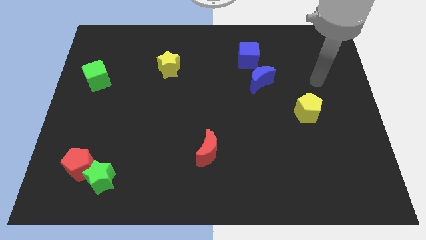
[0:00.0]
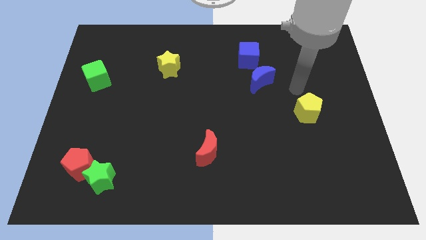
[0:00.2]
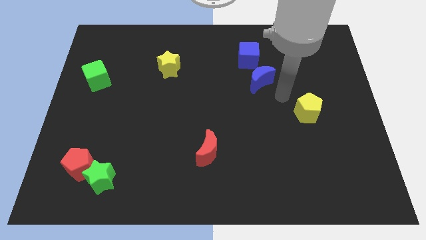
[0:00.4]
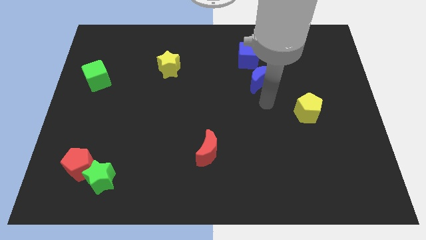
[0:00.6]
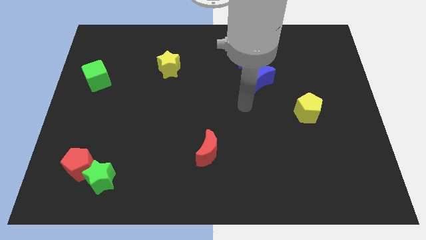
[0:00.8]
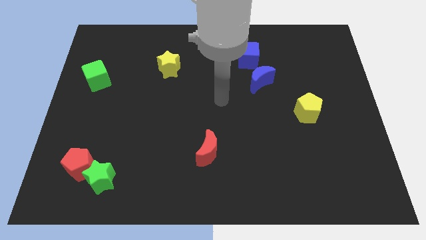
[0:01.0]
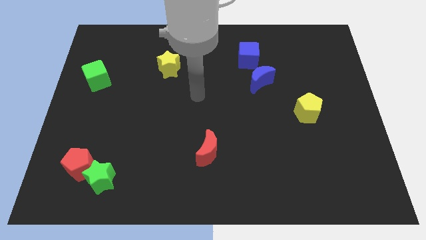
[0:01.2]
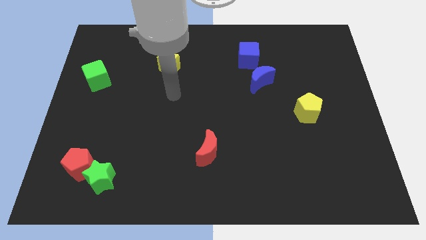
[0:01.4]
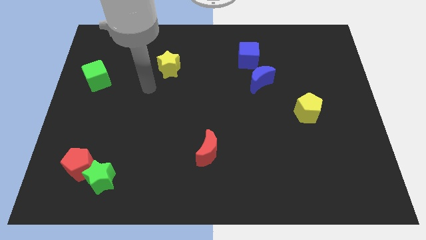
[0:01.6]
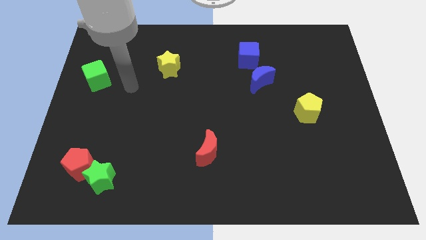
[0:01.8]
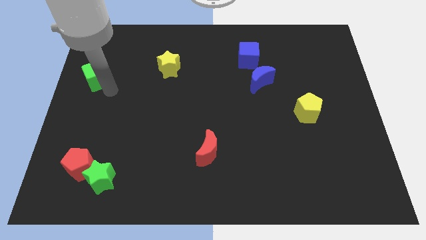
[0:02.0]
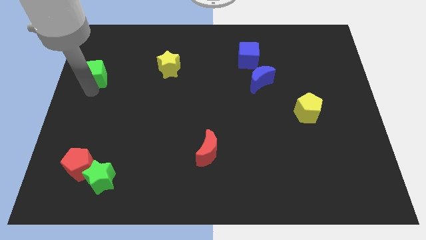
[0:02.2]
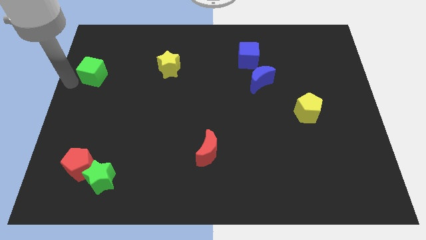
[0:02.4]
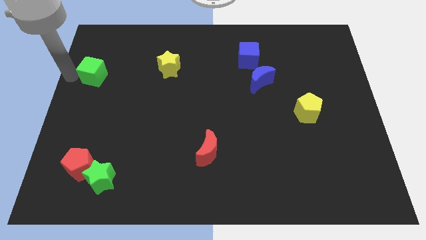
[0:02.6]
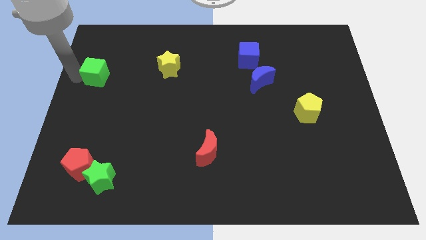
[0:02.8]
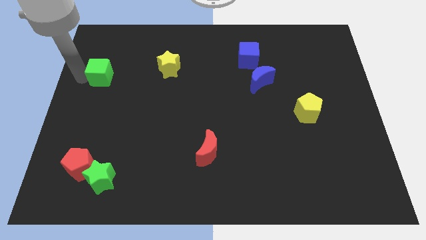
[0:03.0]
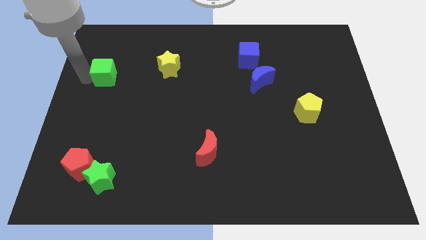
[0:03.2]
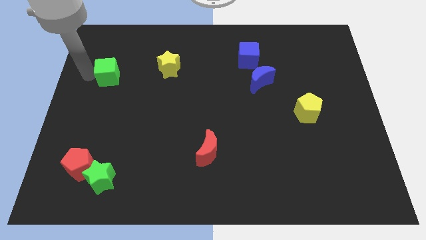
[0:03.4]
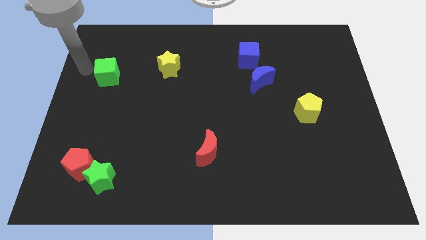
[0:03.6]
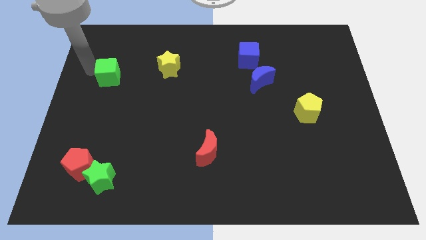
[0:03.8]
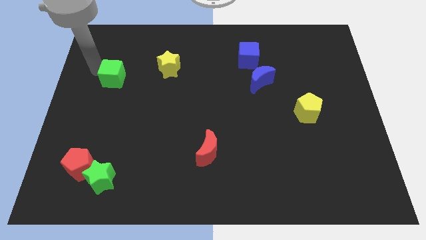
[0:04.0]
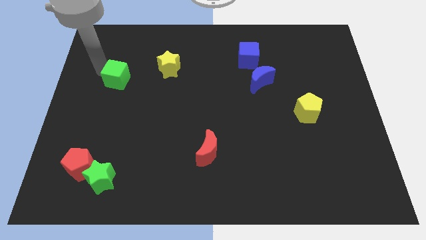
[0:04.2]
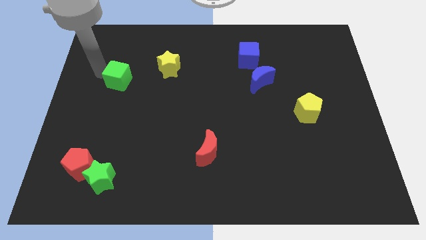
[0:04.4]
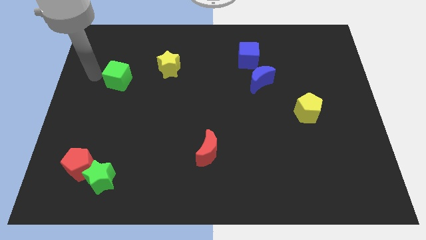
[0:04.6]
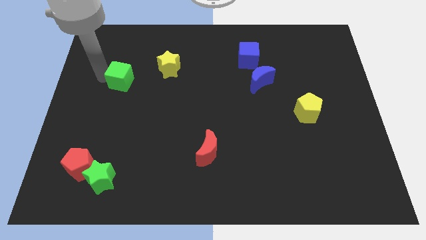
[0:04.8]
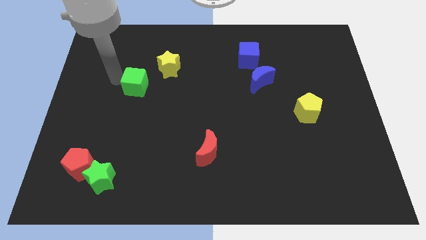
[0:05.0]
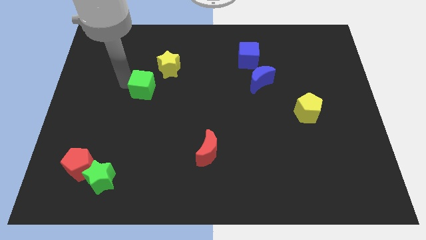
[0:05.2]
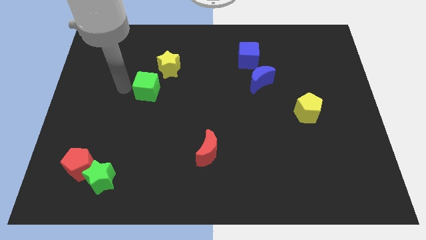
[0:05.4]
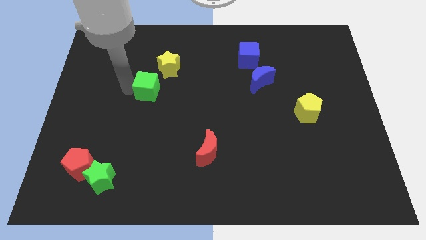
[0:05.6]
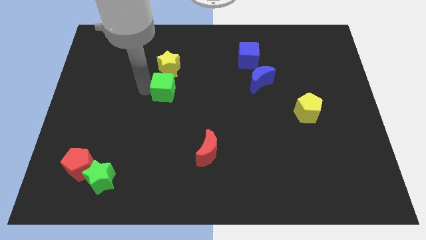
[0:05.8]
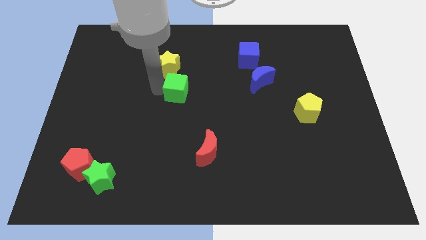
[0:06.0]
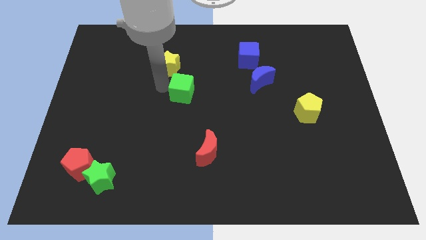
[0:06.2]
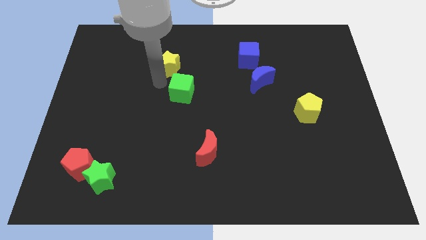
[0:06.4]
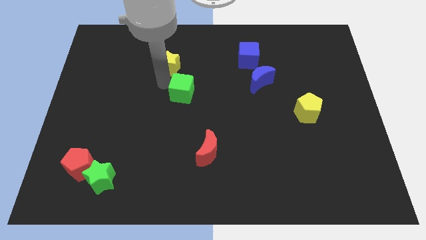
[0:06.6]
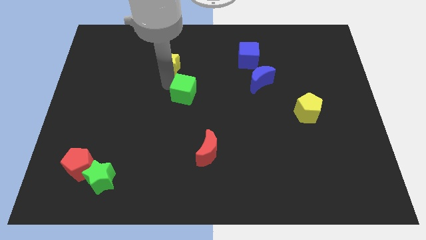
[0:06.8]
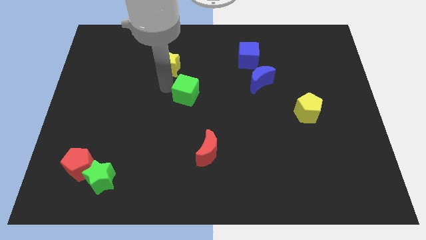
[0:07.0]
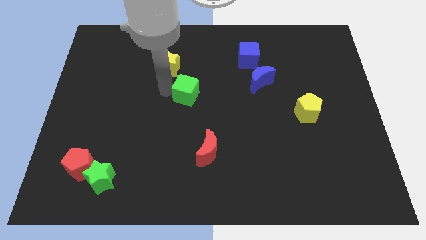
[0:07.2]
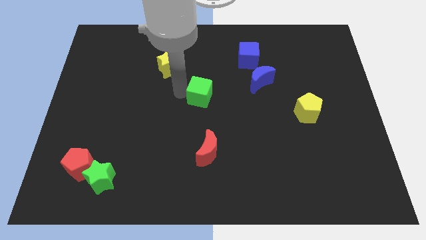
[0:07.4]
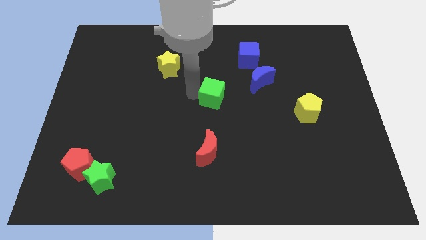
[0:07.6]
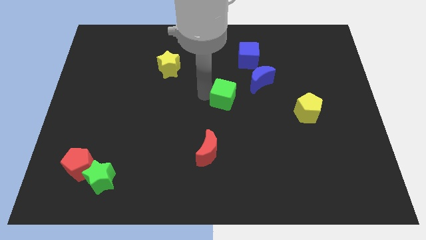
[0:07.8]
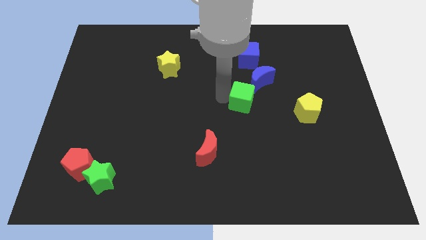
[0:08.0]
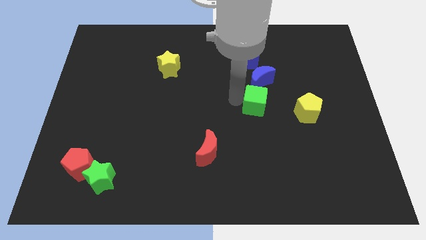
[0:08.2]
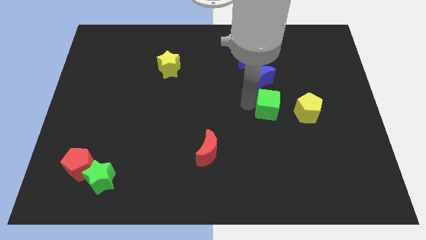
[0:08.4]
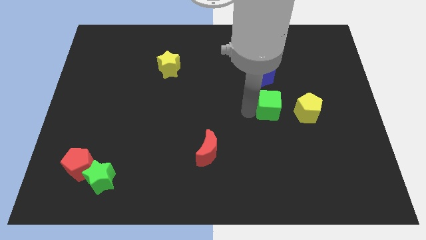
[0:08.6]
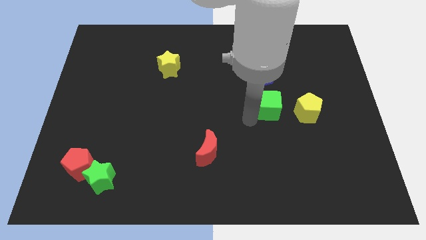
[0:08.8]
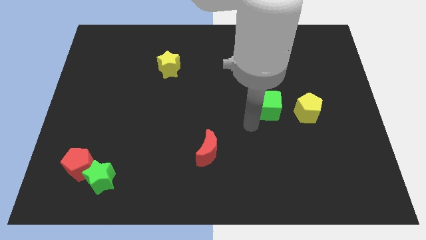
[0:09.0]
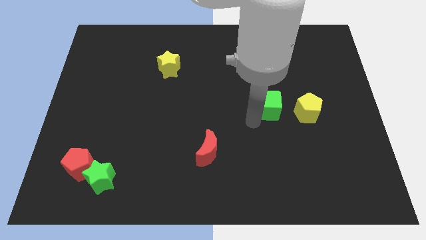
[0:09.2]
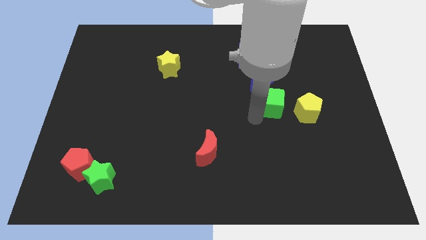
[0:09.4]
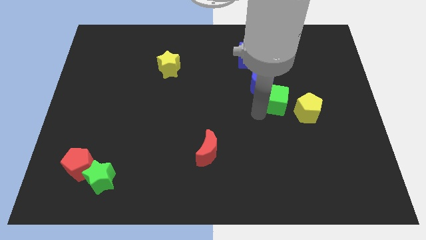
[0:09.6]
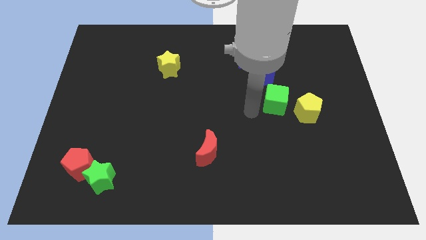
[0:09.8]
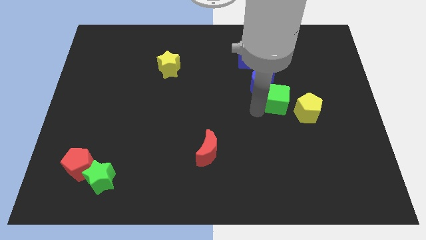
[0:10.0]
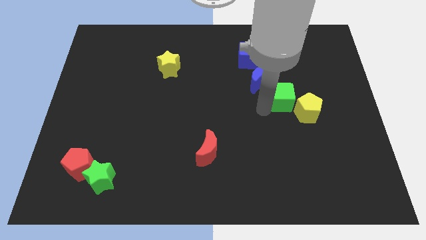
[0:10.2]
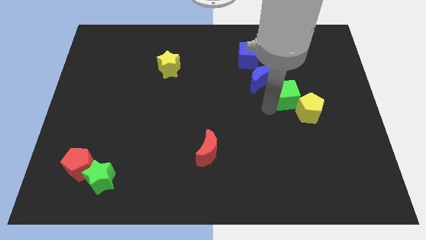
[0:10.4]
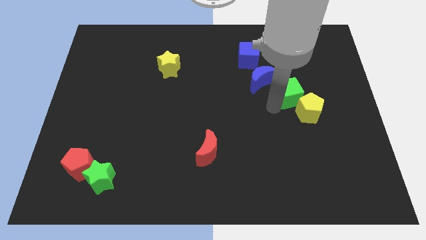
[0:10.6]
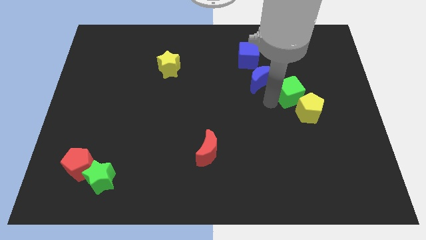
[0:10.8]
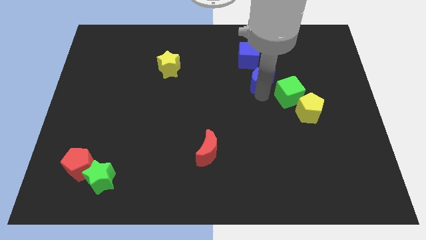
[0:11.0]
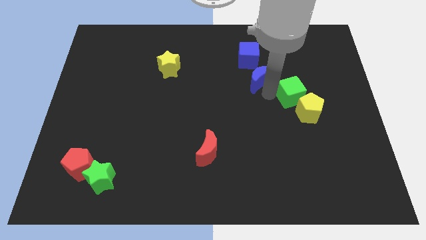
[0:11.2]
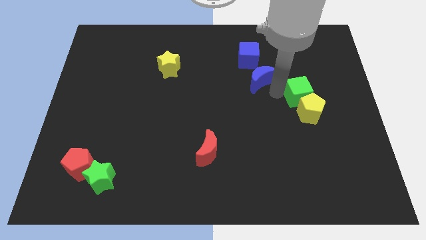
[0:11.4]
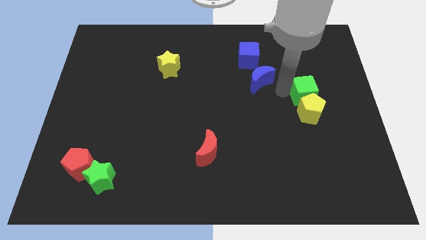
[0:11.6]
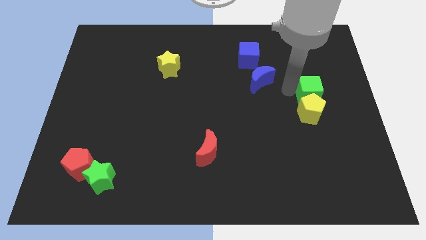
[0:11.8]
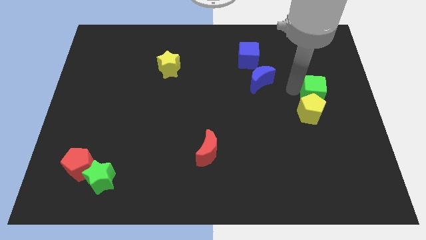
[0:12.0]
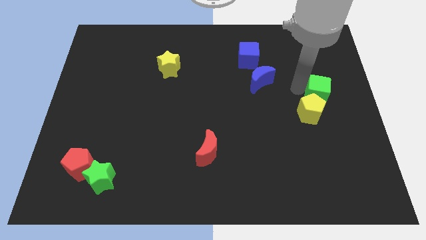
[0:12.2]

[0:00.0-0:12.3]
put the green cube to the right side
